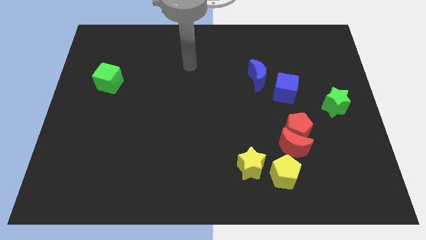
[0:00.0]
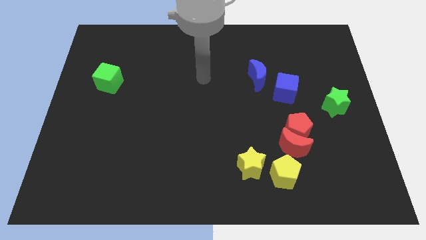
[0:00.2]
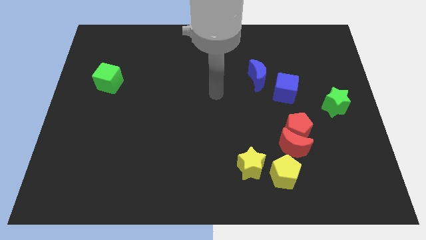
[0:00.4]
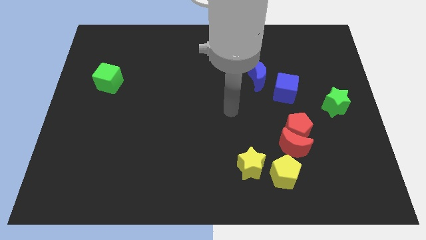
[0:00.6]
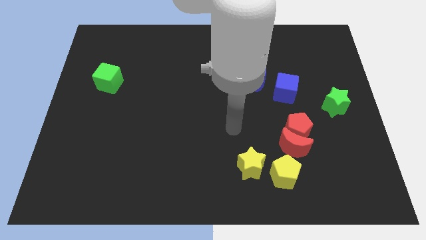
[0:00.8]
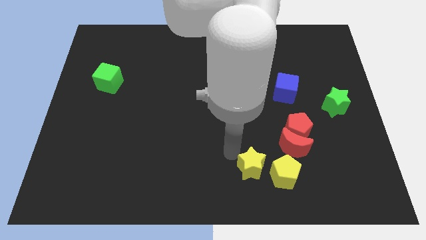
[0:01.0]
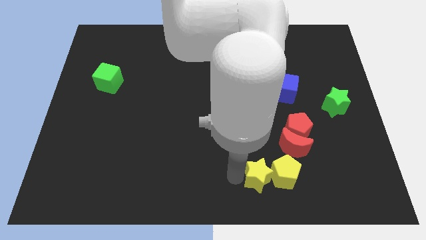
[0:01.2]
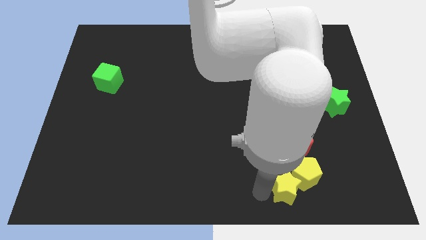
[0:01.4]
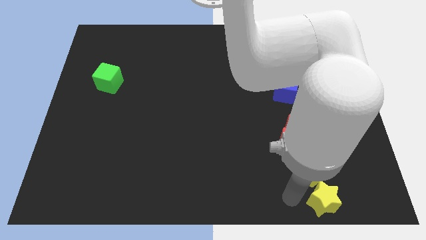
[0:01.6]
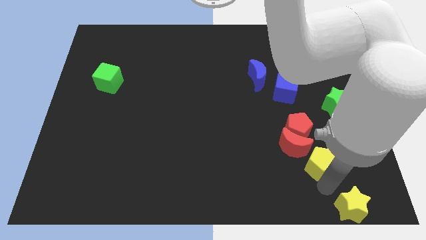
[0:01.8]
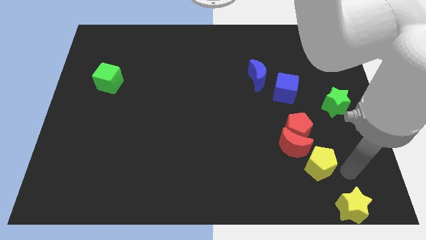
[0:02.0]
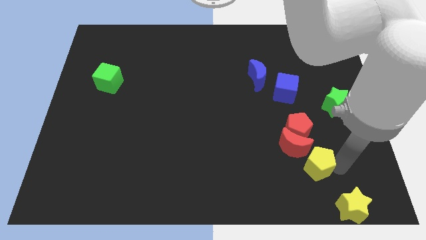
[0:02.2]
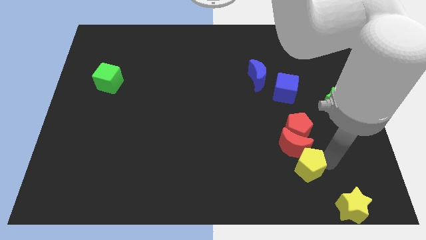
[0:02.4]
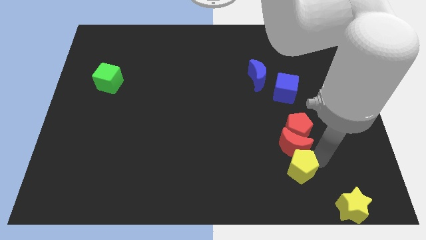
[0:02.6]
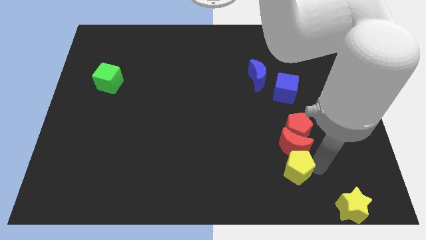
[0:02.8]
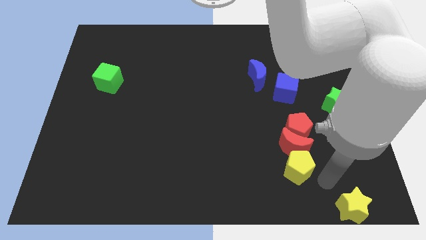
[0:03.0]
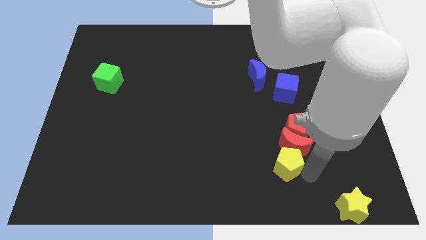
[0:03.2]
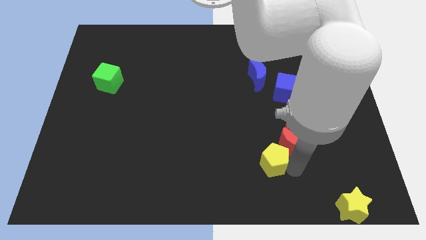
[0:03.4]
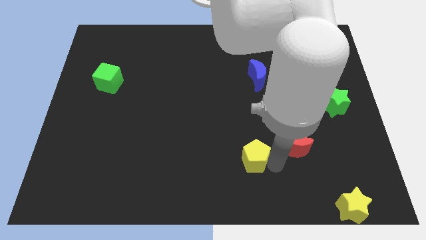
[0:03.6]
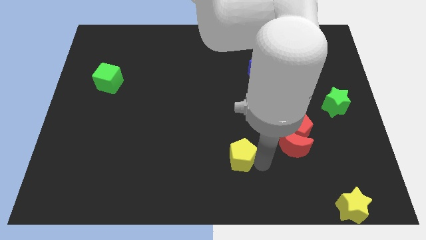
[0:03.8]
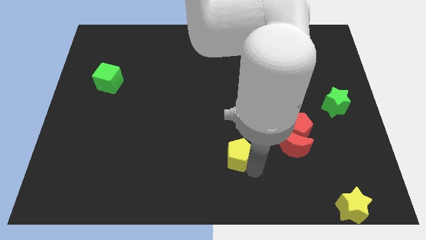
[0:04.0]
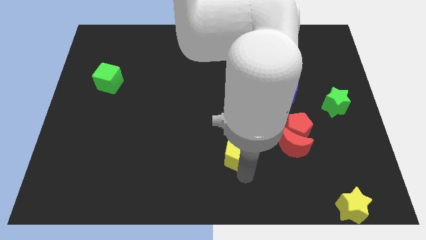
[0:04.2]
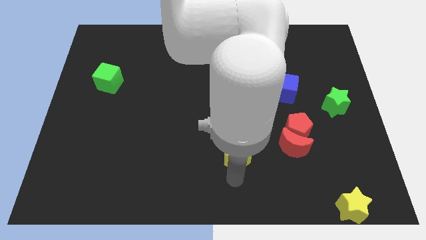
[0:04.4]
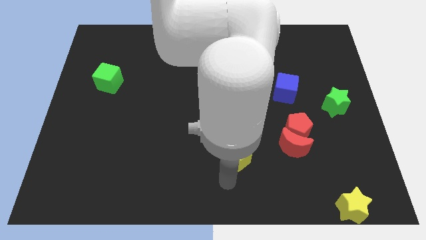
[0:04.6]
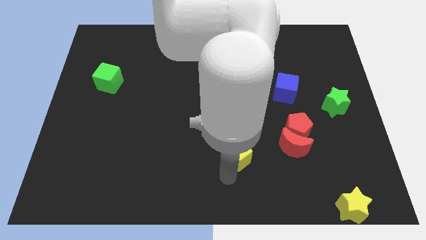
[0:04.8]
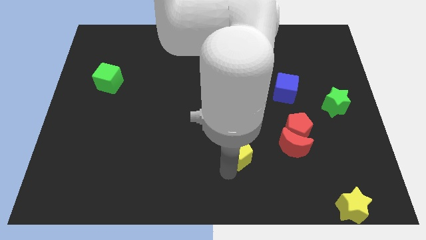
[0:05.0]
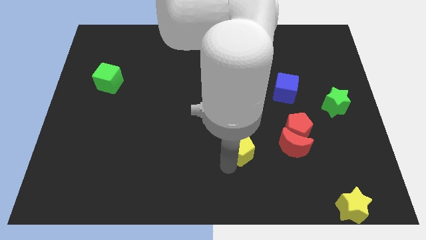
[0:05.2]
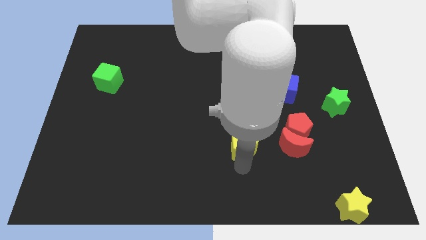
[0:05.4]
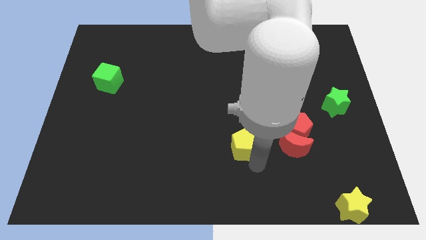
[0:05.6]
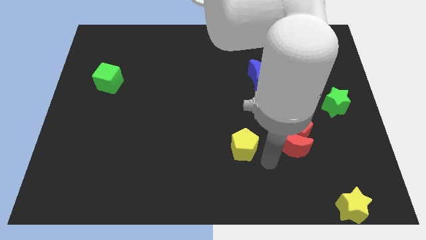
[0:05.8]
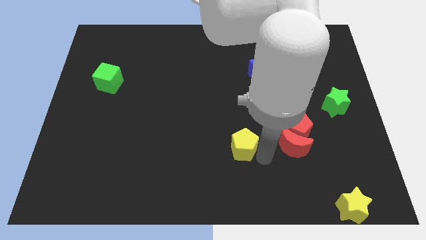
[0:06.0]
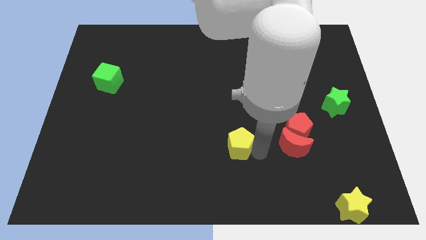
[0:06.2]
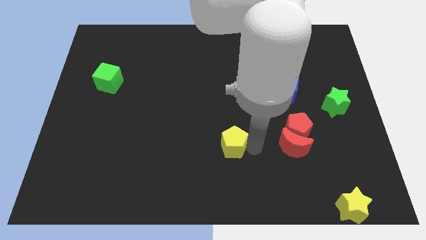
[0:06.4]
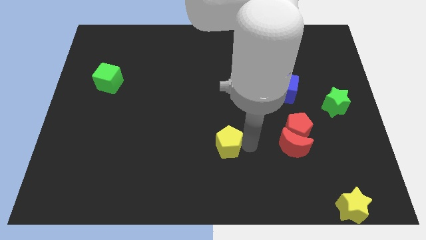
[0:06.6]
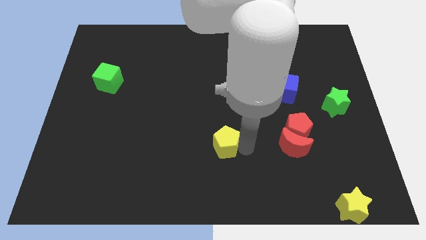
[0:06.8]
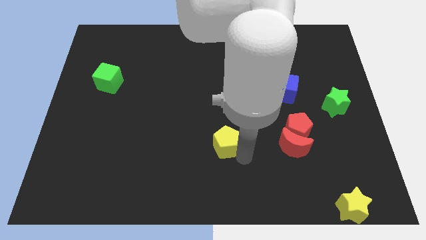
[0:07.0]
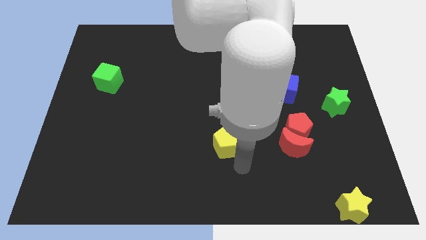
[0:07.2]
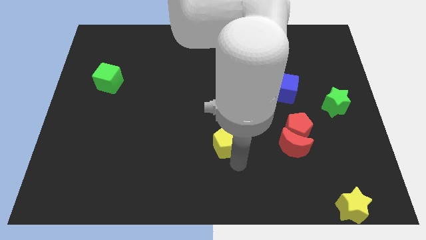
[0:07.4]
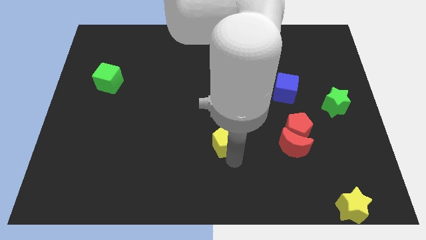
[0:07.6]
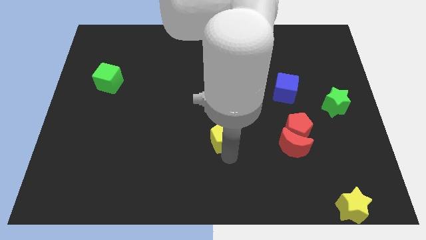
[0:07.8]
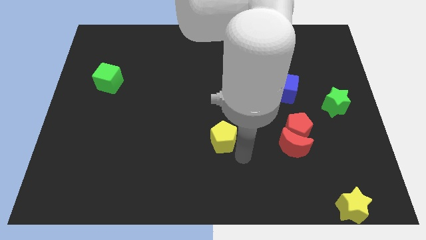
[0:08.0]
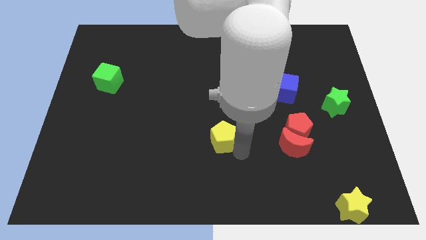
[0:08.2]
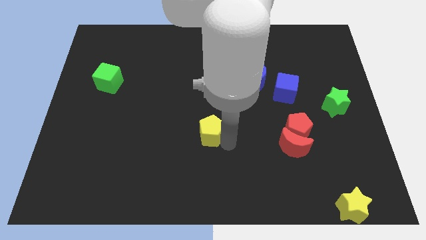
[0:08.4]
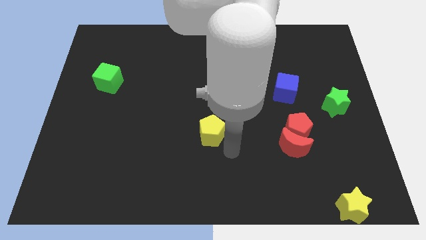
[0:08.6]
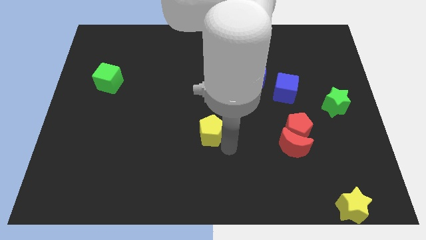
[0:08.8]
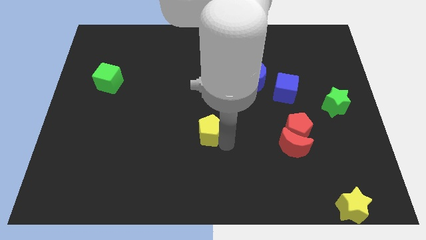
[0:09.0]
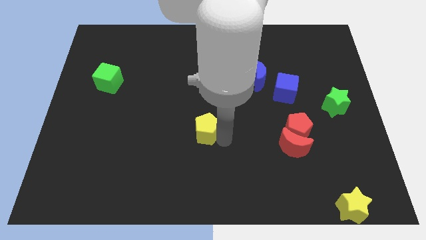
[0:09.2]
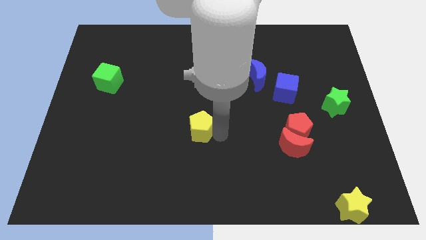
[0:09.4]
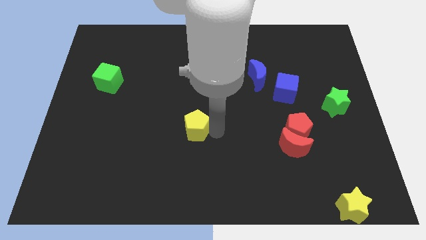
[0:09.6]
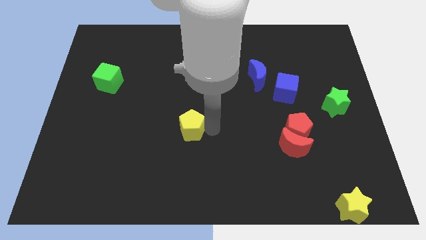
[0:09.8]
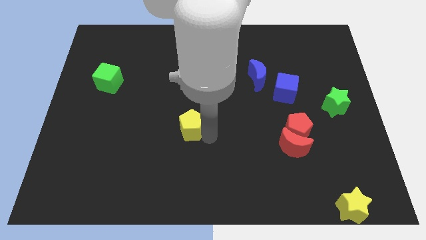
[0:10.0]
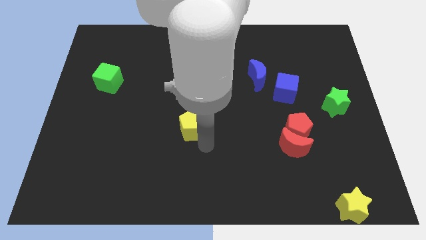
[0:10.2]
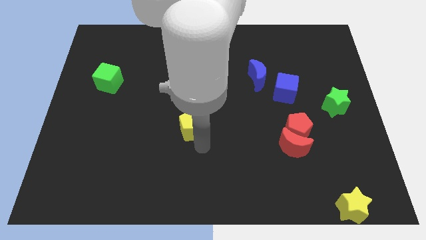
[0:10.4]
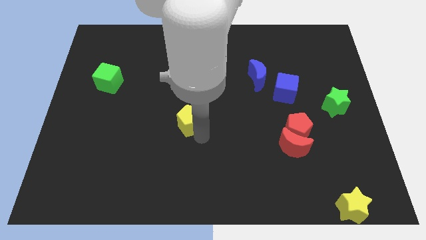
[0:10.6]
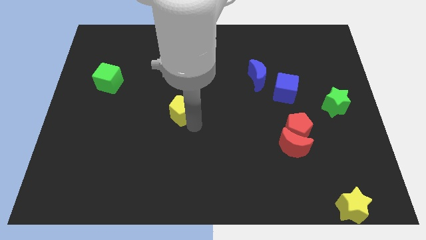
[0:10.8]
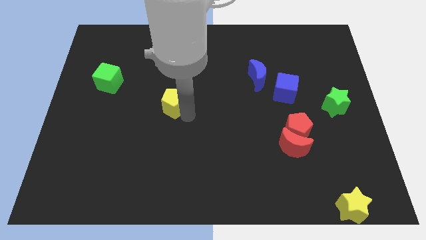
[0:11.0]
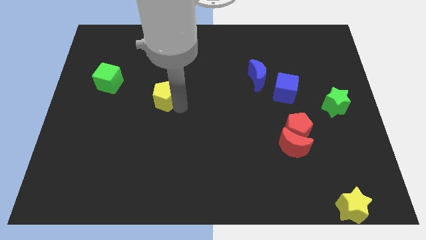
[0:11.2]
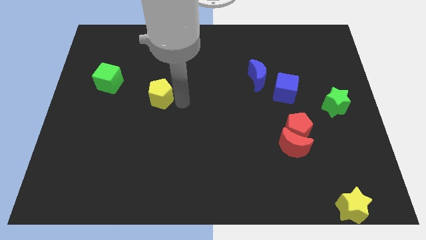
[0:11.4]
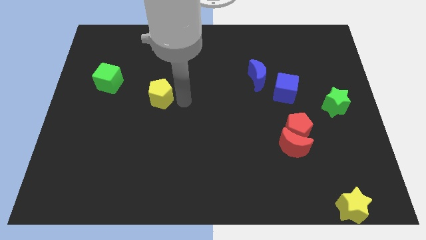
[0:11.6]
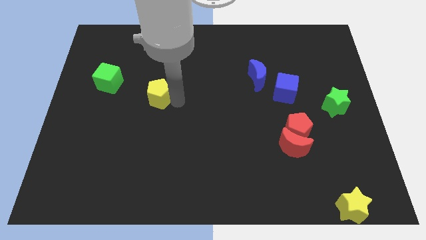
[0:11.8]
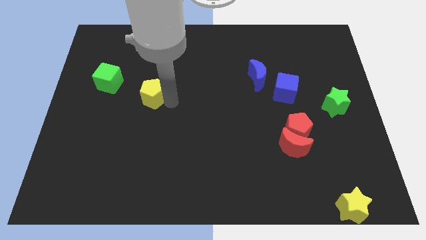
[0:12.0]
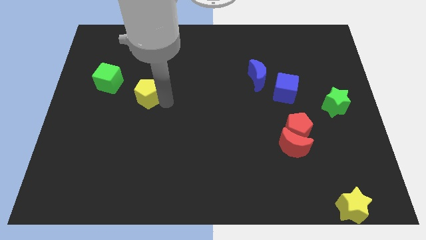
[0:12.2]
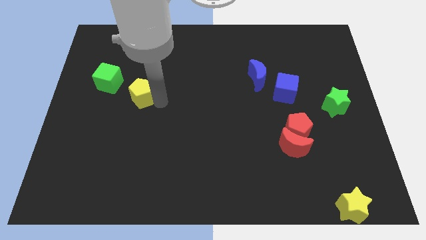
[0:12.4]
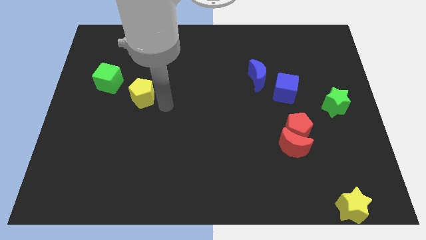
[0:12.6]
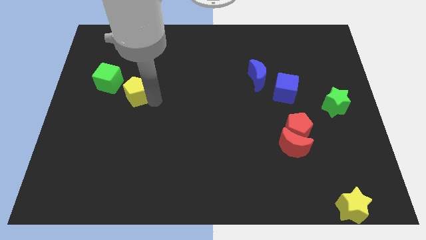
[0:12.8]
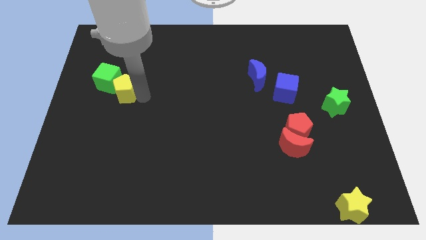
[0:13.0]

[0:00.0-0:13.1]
put the yellow pentagon towards the green cube

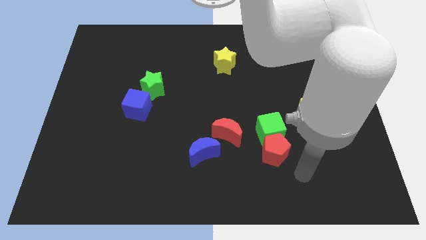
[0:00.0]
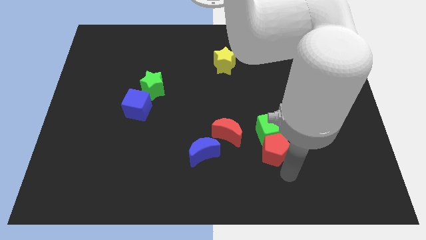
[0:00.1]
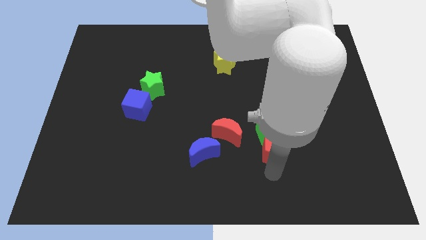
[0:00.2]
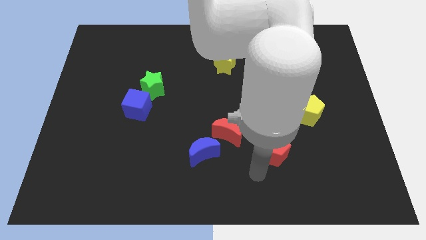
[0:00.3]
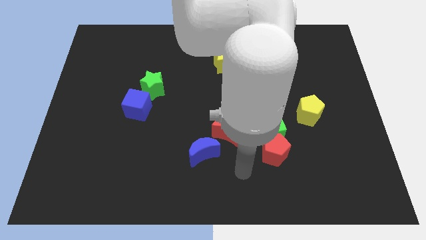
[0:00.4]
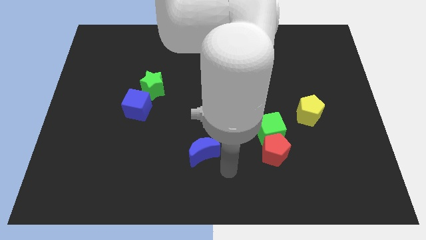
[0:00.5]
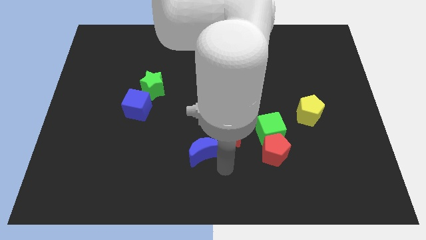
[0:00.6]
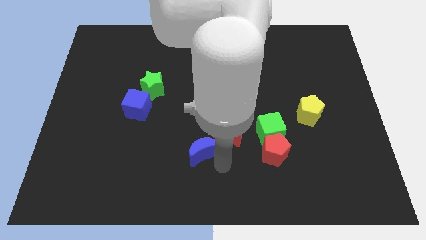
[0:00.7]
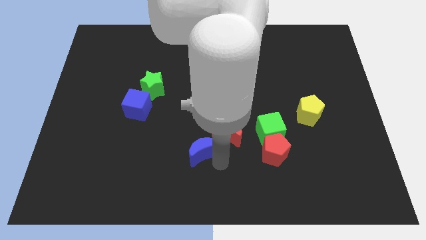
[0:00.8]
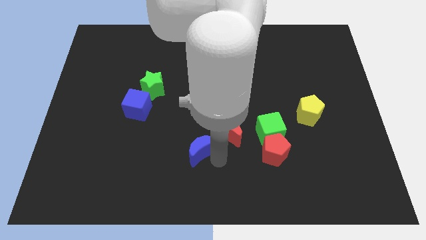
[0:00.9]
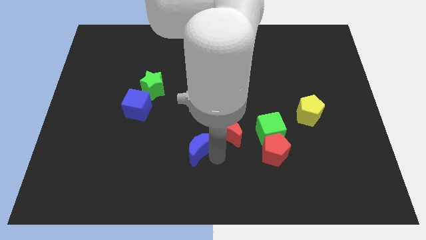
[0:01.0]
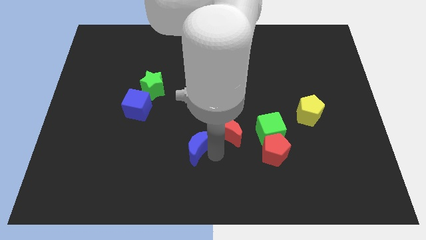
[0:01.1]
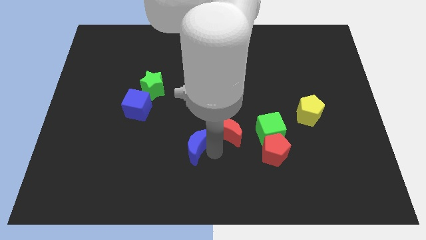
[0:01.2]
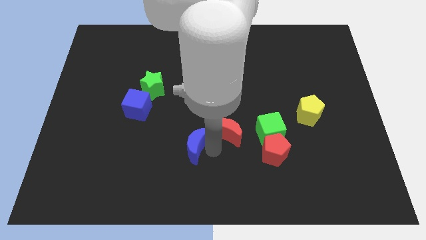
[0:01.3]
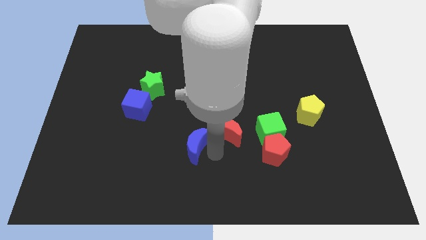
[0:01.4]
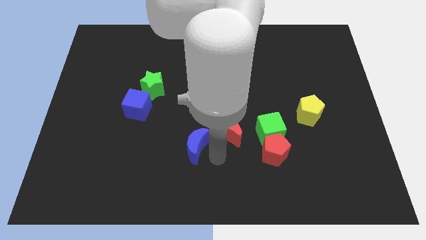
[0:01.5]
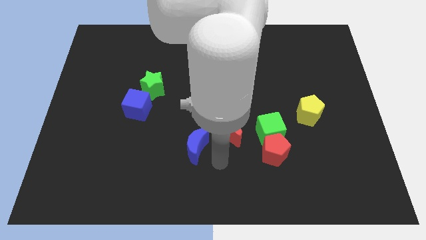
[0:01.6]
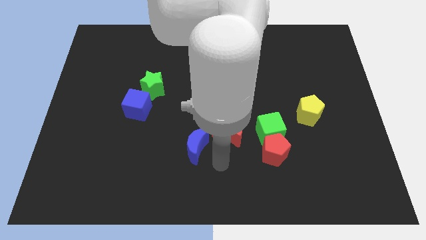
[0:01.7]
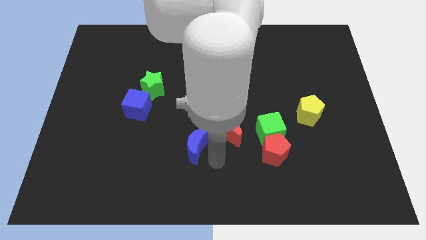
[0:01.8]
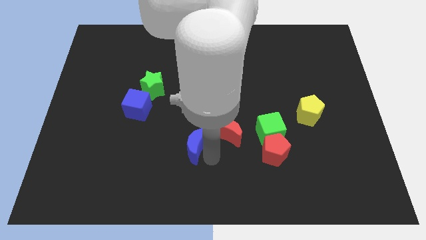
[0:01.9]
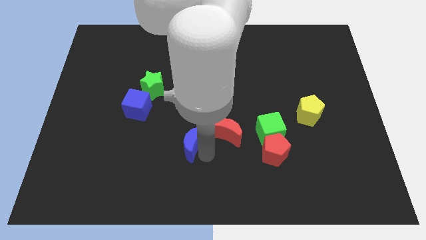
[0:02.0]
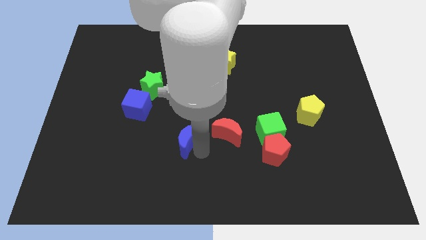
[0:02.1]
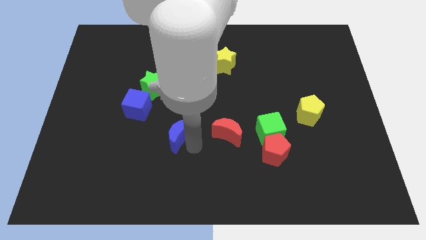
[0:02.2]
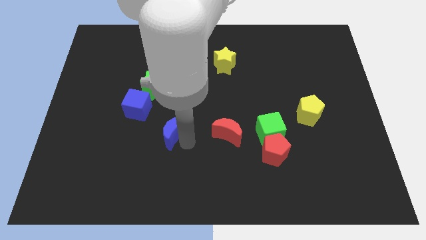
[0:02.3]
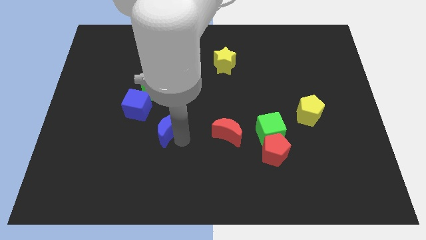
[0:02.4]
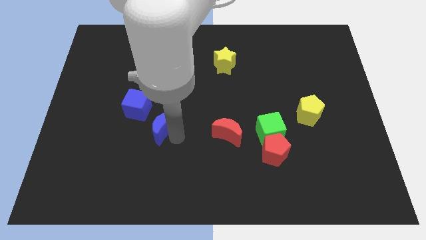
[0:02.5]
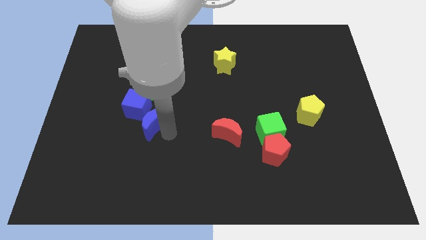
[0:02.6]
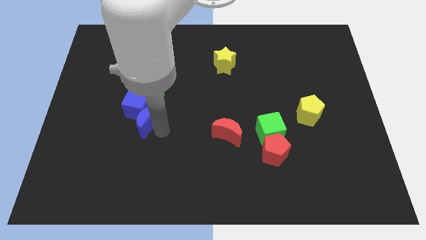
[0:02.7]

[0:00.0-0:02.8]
move the blue moon close to the blue cube
